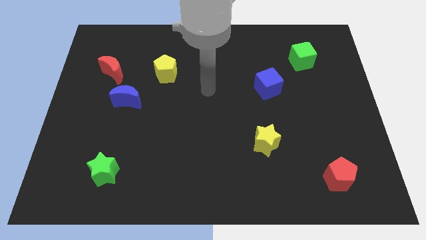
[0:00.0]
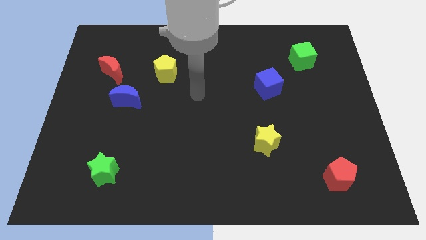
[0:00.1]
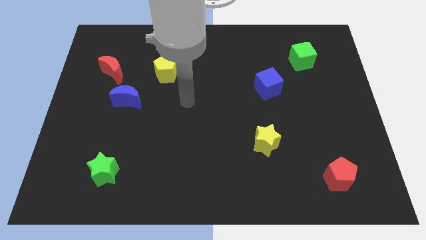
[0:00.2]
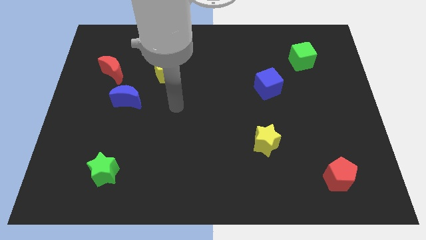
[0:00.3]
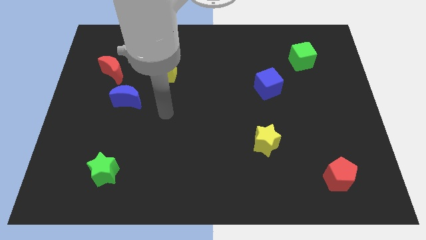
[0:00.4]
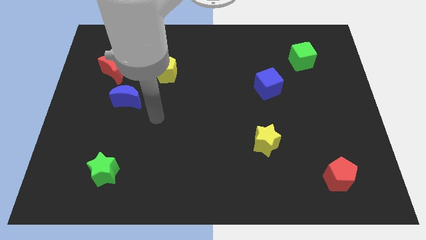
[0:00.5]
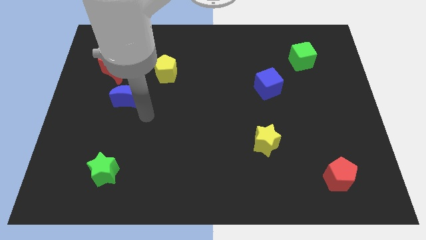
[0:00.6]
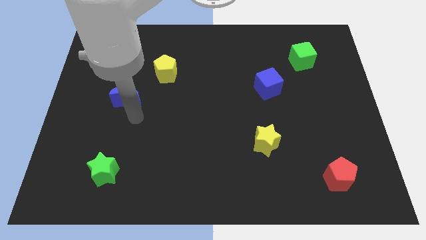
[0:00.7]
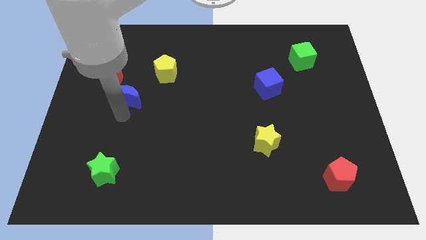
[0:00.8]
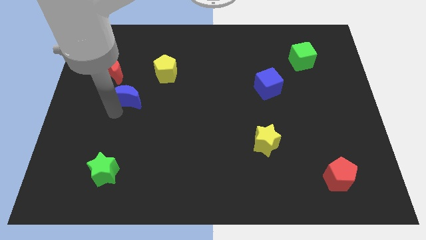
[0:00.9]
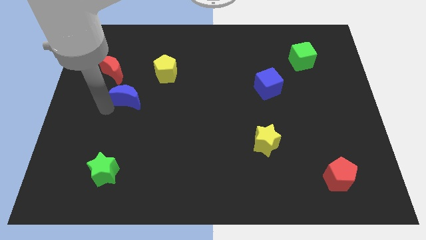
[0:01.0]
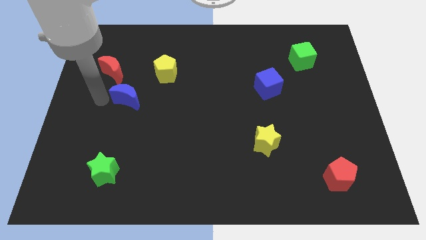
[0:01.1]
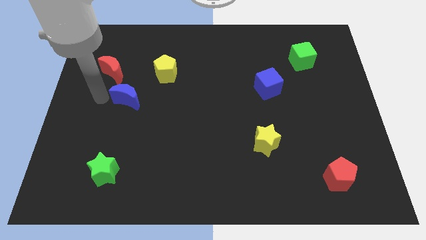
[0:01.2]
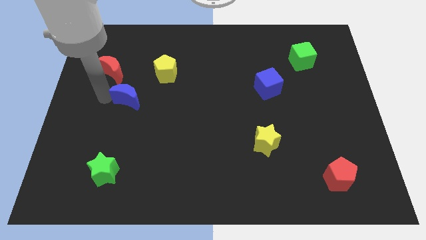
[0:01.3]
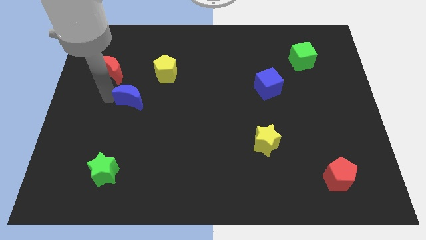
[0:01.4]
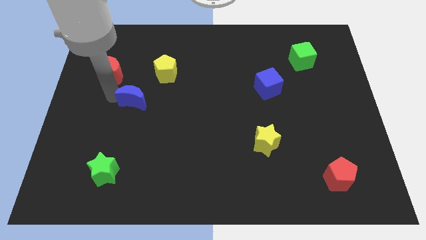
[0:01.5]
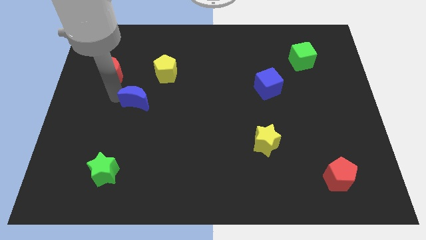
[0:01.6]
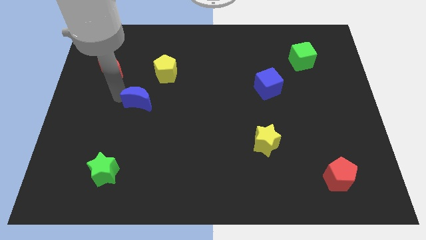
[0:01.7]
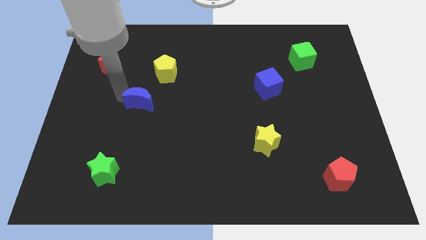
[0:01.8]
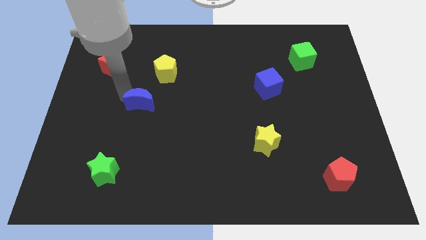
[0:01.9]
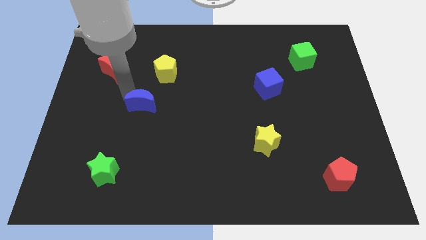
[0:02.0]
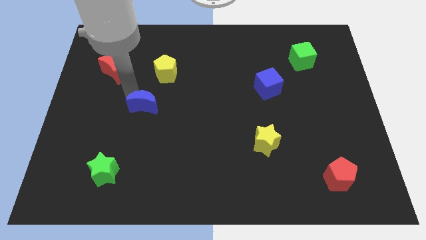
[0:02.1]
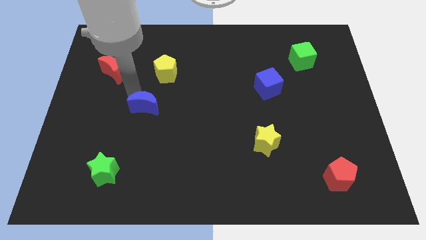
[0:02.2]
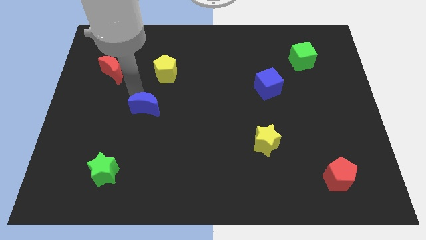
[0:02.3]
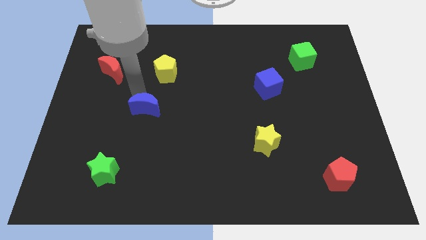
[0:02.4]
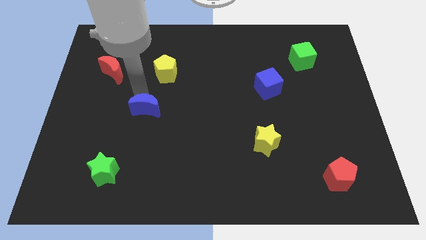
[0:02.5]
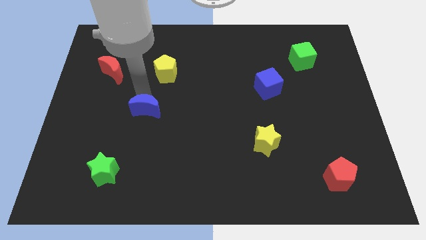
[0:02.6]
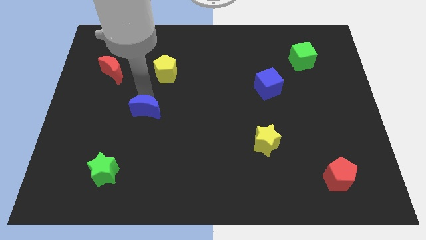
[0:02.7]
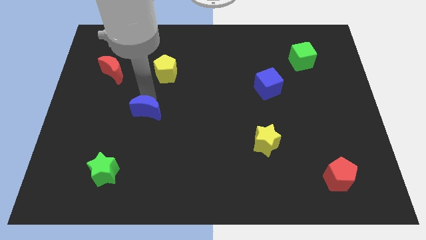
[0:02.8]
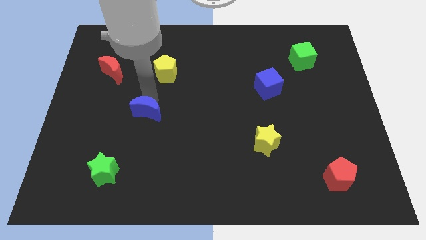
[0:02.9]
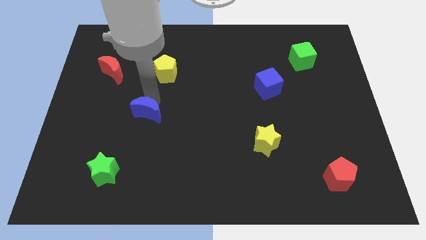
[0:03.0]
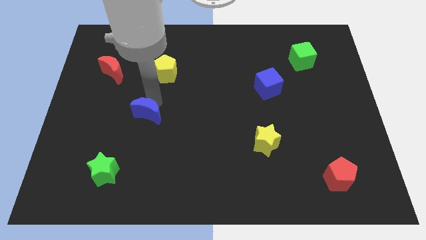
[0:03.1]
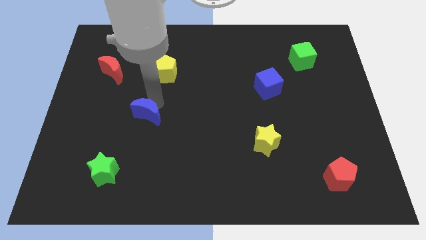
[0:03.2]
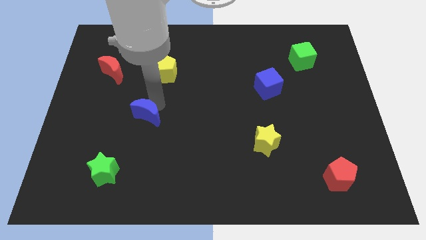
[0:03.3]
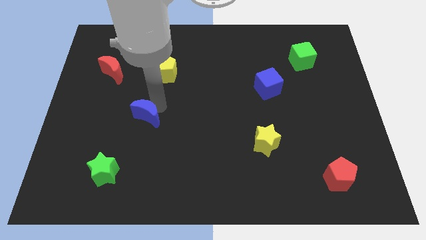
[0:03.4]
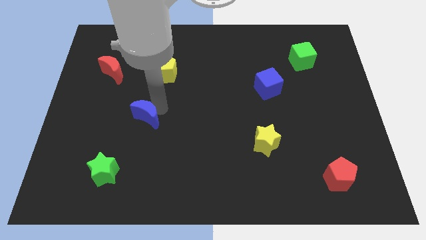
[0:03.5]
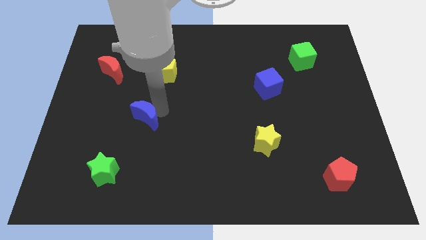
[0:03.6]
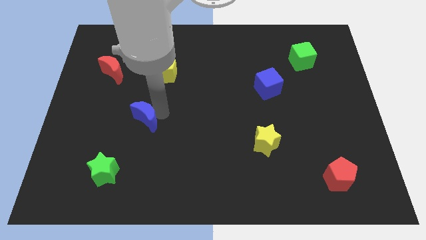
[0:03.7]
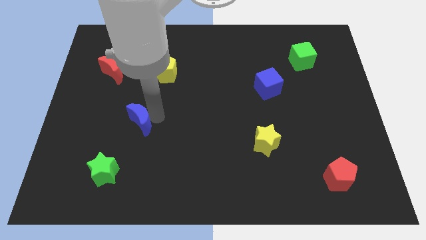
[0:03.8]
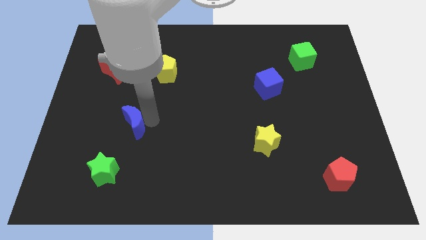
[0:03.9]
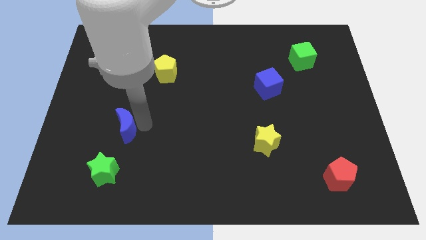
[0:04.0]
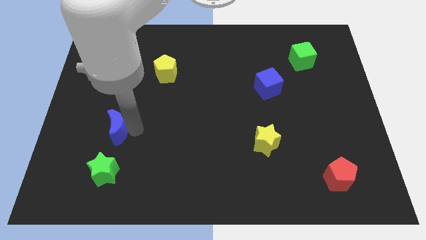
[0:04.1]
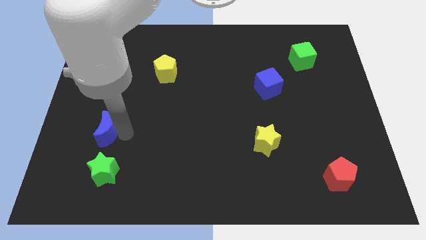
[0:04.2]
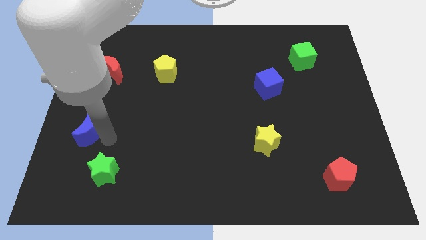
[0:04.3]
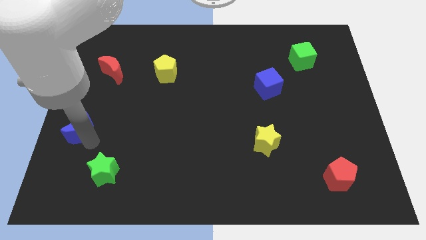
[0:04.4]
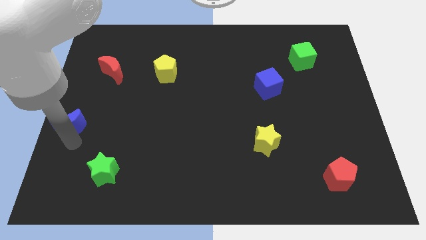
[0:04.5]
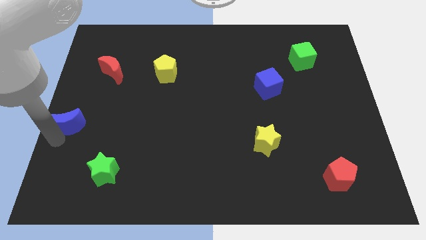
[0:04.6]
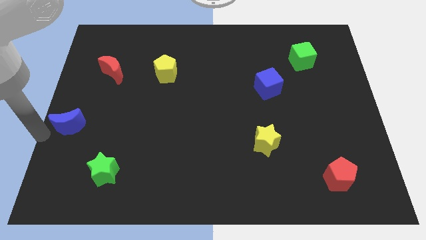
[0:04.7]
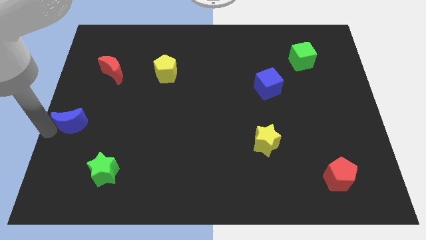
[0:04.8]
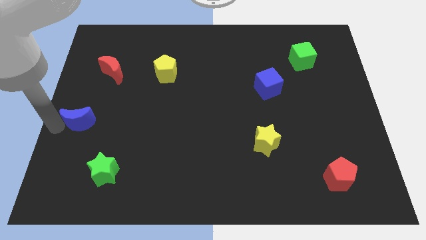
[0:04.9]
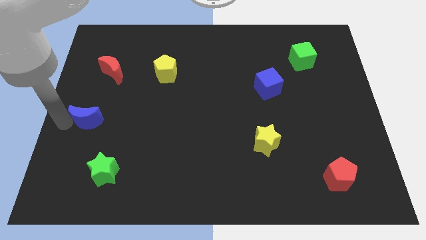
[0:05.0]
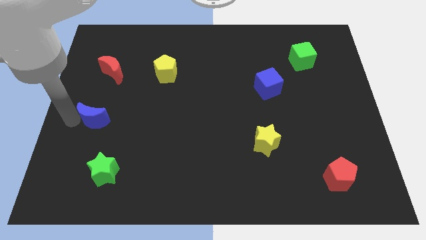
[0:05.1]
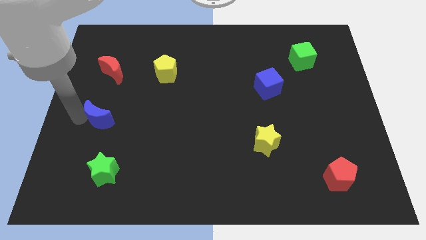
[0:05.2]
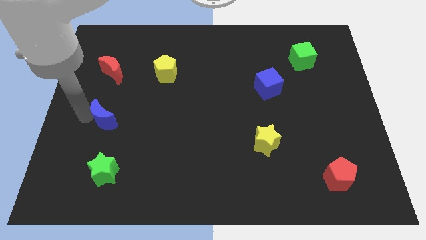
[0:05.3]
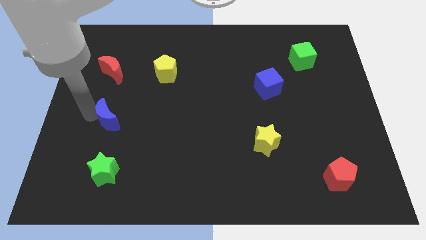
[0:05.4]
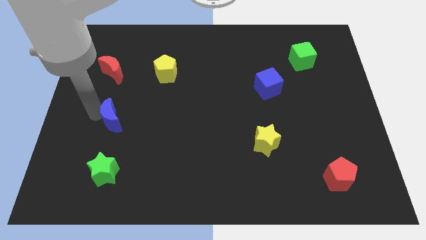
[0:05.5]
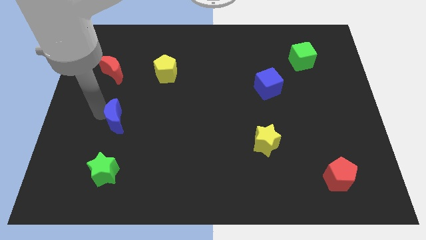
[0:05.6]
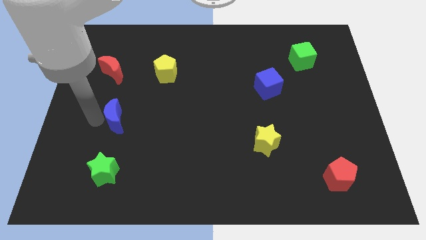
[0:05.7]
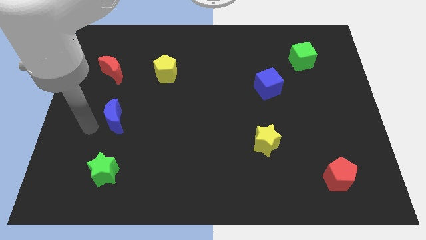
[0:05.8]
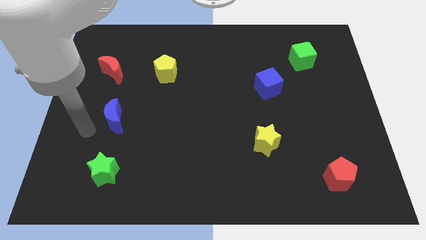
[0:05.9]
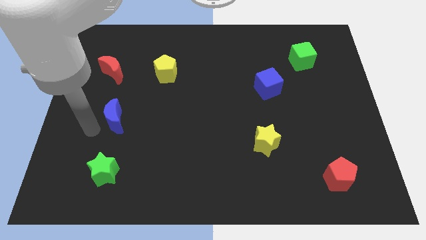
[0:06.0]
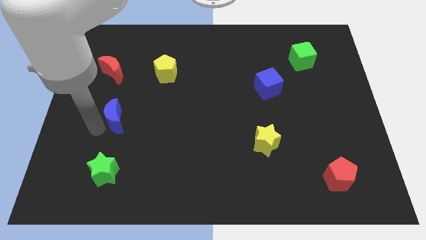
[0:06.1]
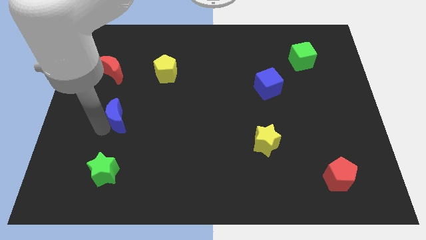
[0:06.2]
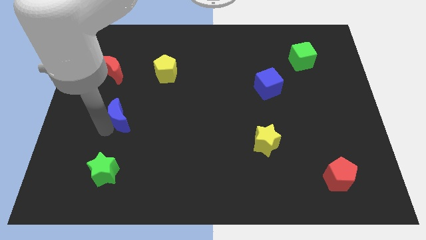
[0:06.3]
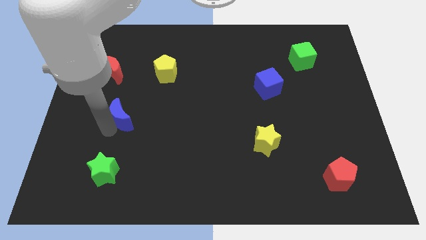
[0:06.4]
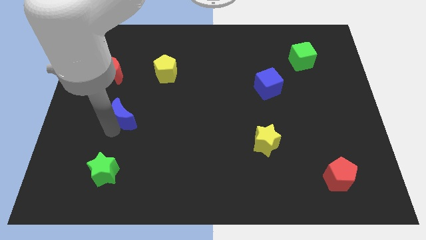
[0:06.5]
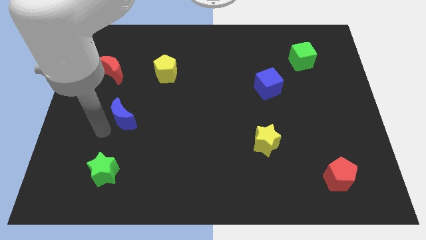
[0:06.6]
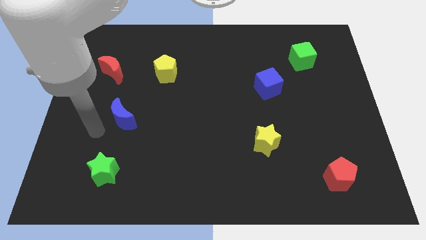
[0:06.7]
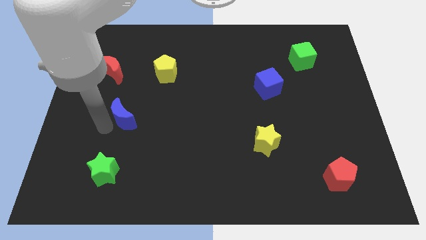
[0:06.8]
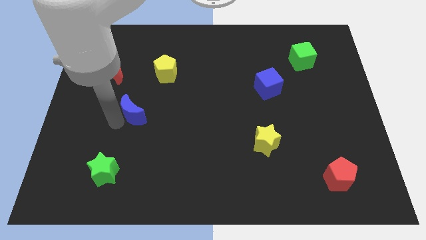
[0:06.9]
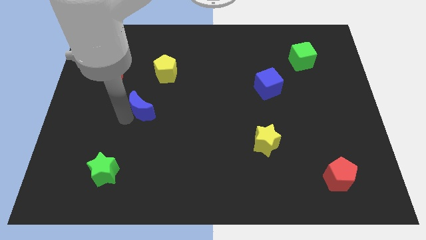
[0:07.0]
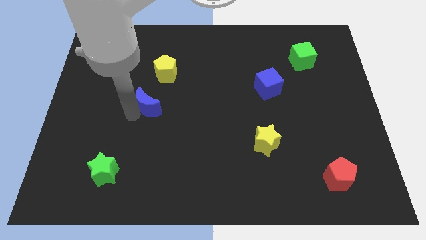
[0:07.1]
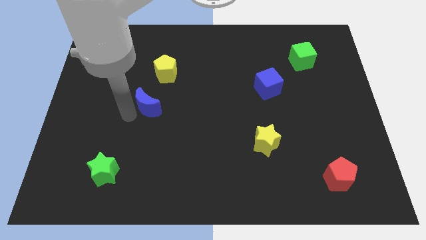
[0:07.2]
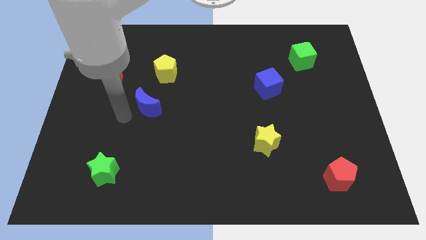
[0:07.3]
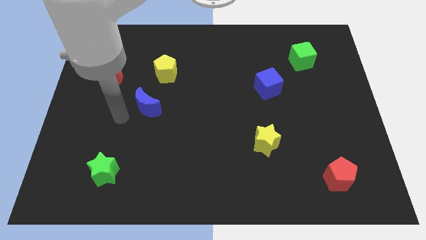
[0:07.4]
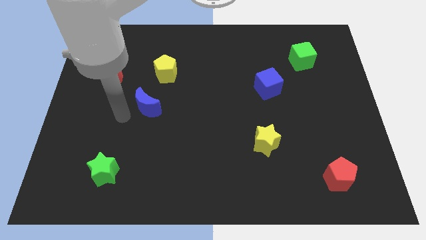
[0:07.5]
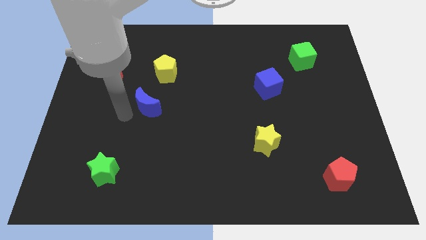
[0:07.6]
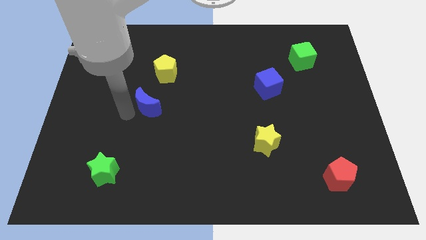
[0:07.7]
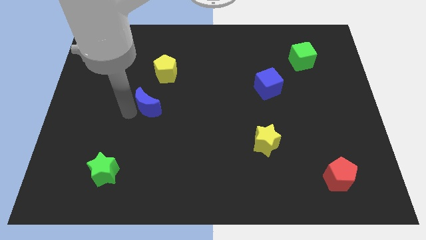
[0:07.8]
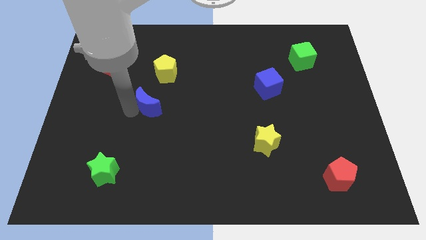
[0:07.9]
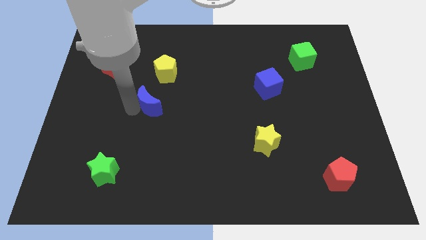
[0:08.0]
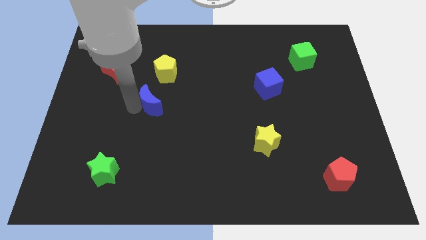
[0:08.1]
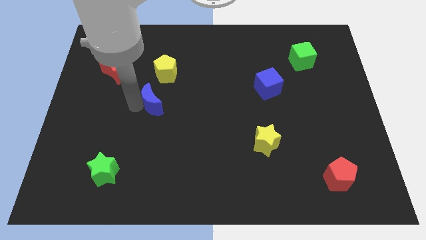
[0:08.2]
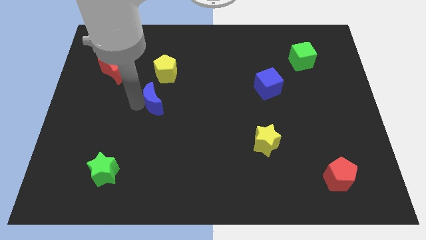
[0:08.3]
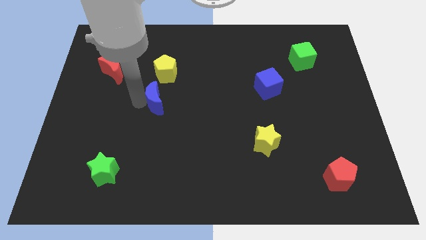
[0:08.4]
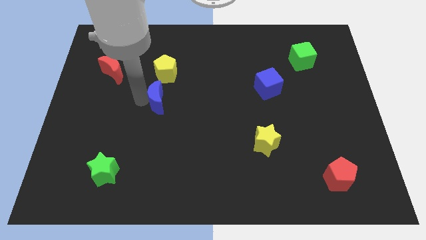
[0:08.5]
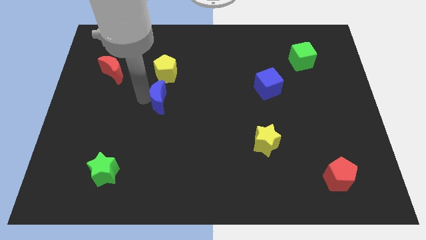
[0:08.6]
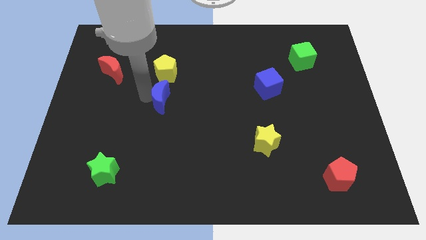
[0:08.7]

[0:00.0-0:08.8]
slide the blue moon to the center
